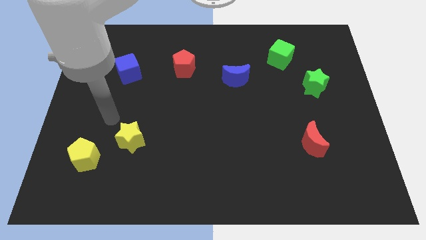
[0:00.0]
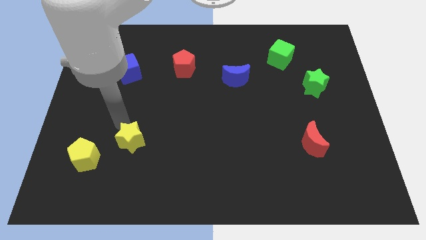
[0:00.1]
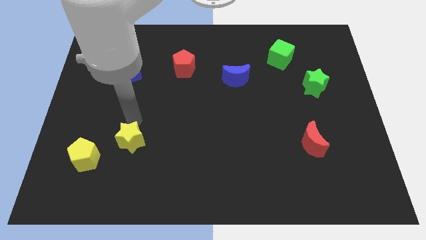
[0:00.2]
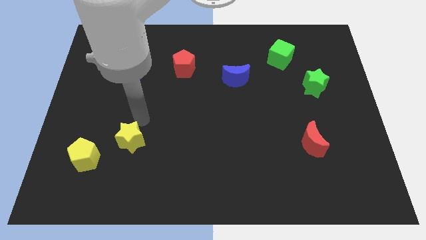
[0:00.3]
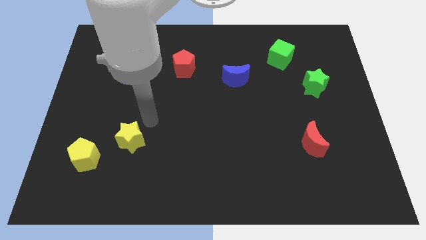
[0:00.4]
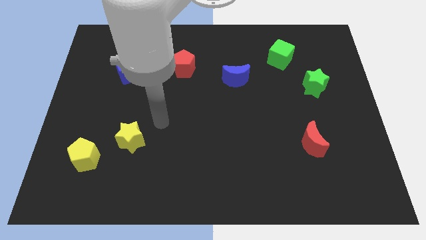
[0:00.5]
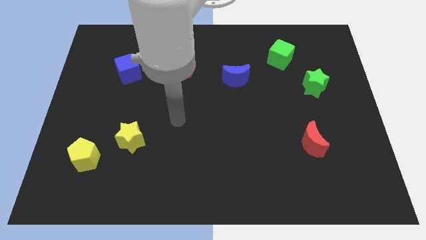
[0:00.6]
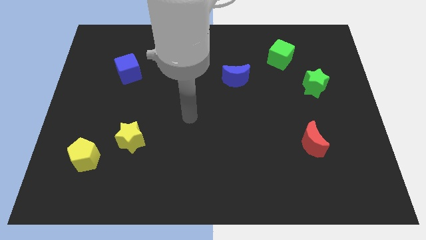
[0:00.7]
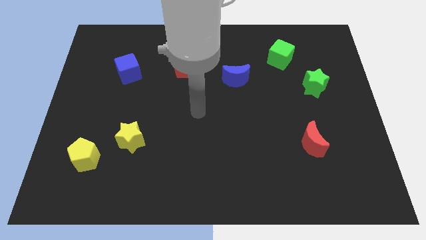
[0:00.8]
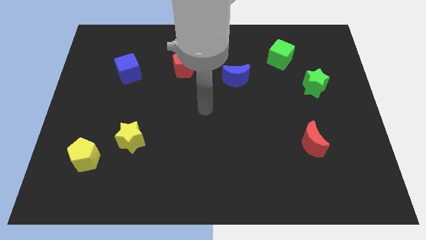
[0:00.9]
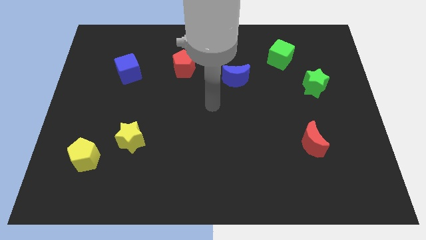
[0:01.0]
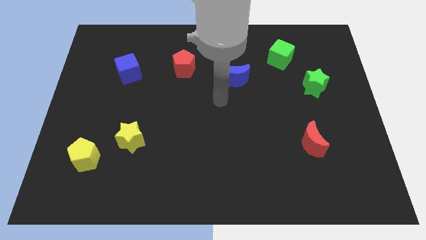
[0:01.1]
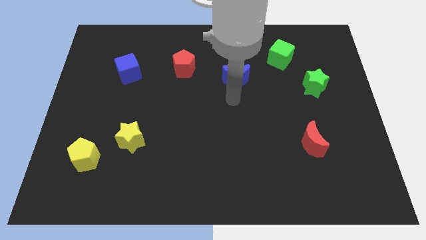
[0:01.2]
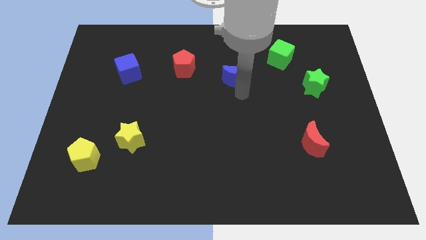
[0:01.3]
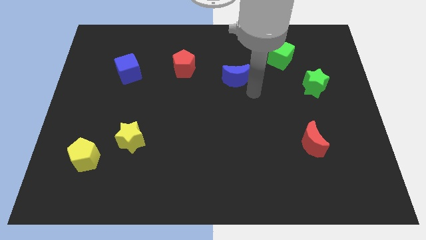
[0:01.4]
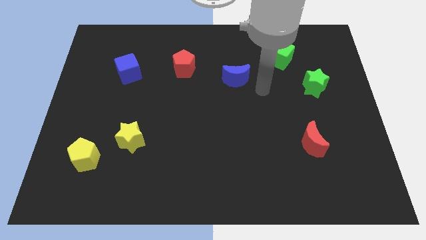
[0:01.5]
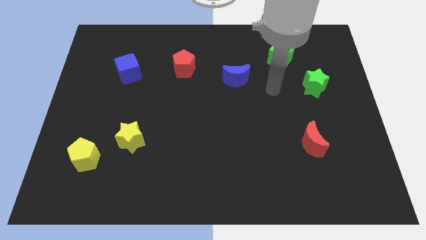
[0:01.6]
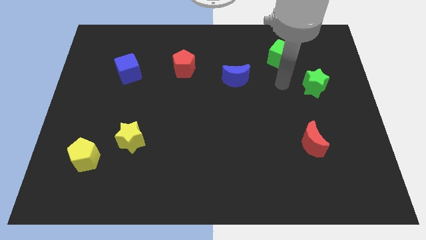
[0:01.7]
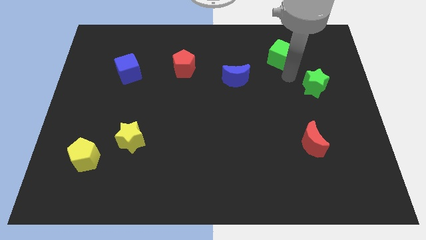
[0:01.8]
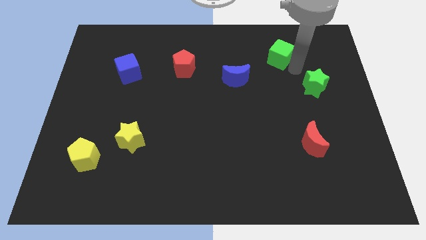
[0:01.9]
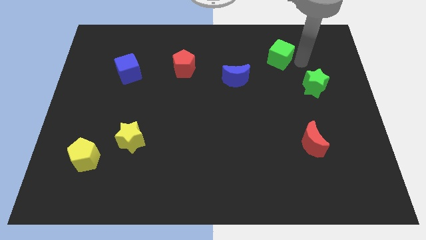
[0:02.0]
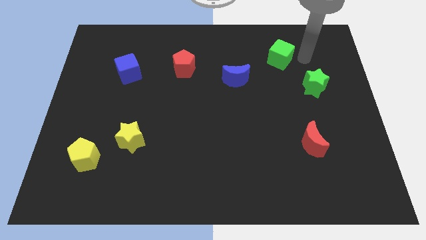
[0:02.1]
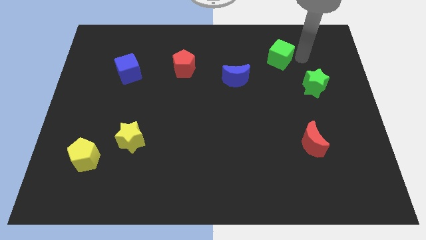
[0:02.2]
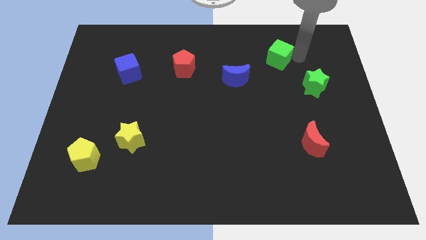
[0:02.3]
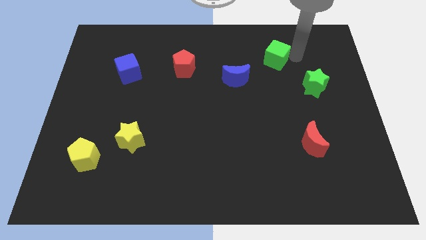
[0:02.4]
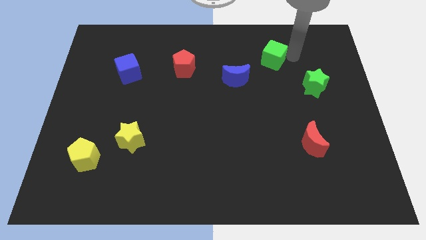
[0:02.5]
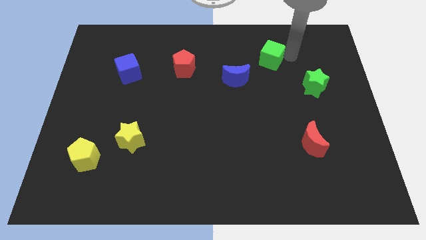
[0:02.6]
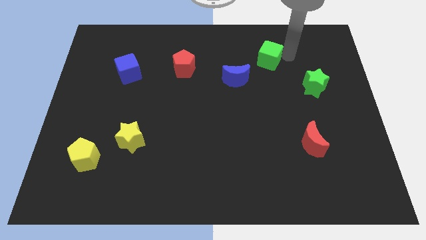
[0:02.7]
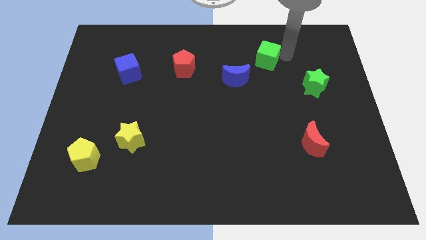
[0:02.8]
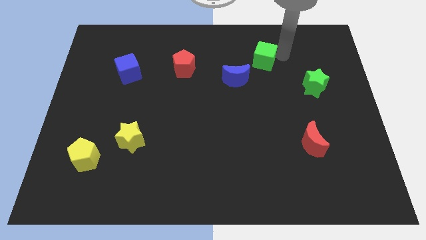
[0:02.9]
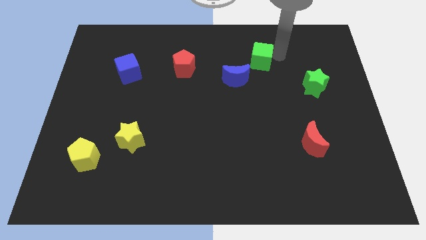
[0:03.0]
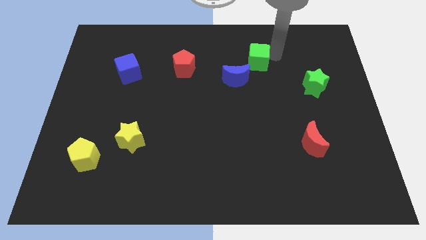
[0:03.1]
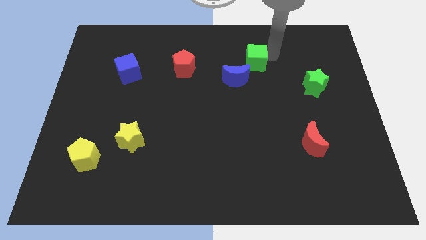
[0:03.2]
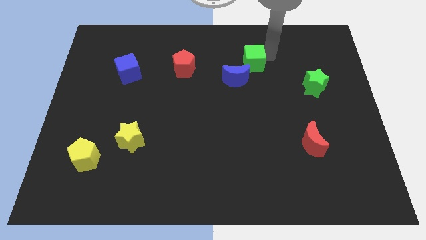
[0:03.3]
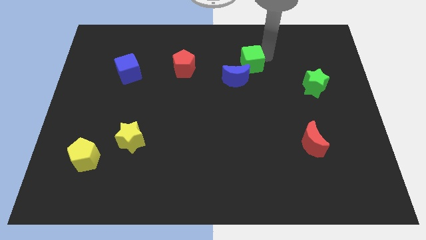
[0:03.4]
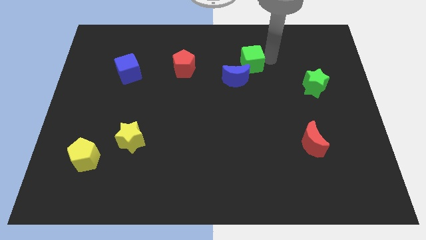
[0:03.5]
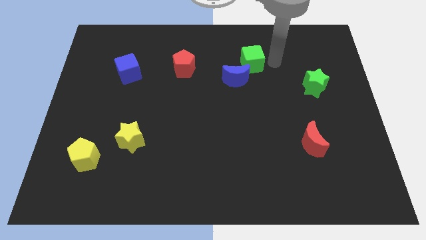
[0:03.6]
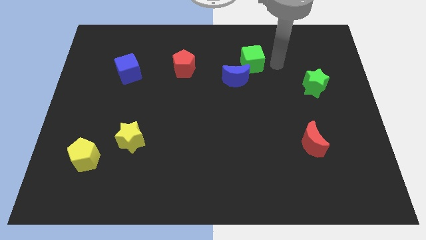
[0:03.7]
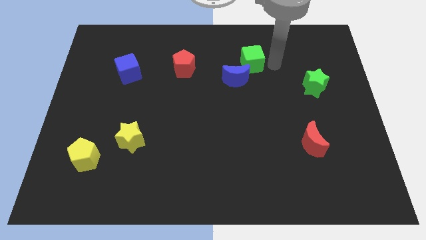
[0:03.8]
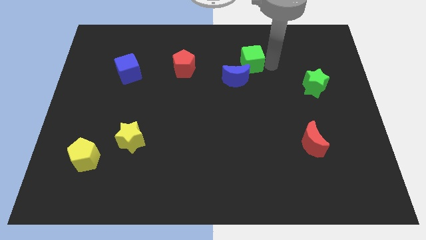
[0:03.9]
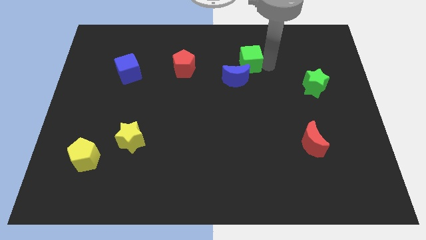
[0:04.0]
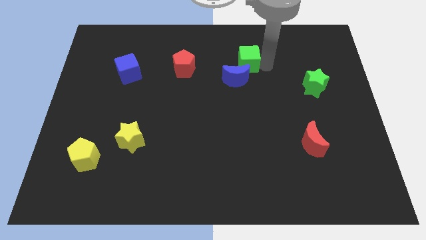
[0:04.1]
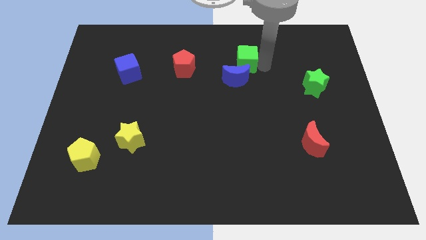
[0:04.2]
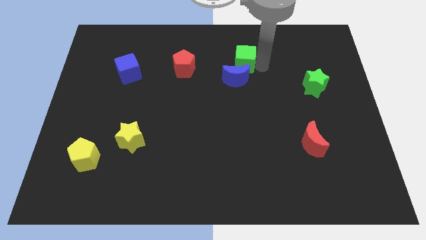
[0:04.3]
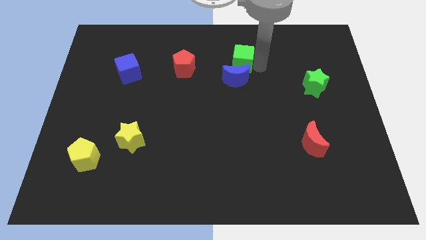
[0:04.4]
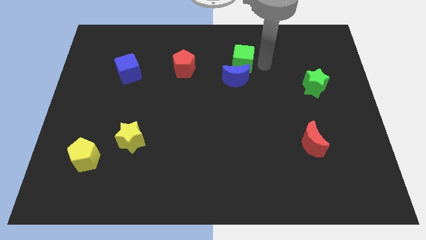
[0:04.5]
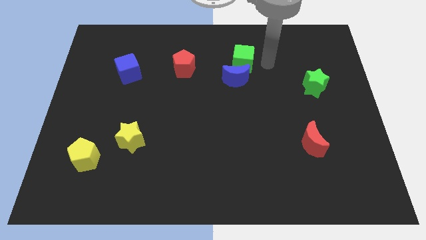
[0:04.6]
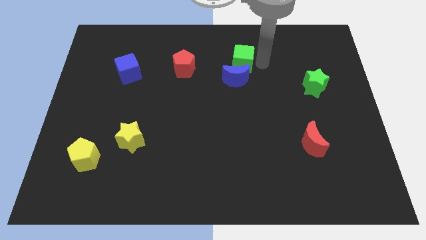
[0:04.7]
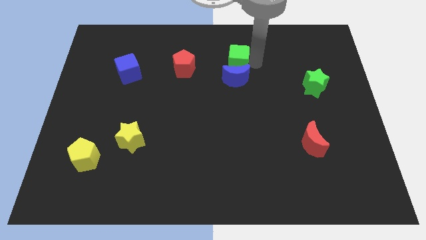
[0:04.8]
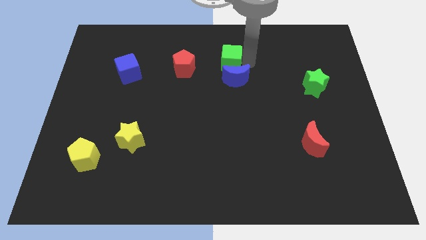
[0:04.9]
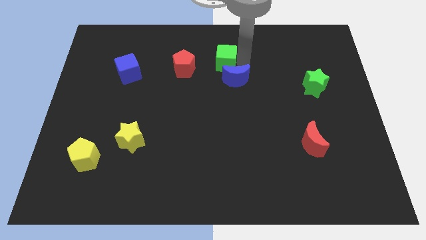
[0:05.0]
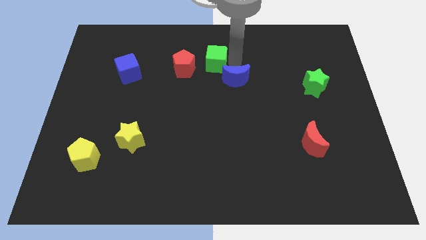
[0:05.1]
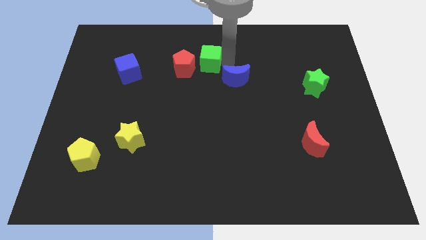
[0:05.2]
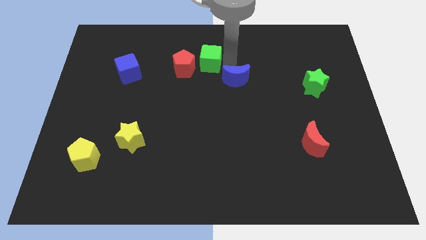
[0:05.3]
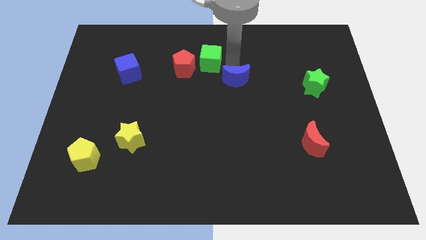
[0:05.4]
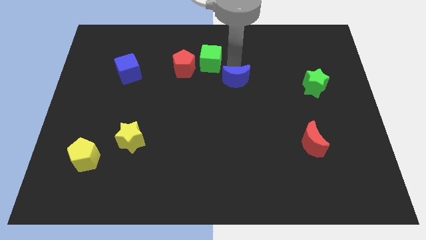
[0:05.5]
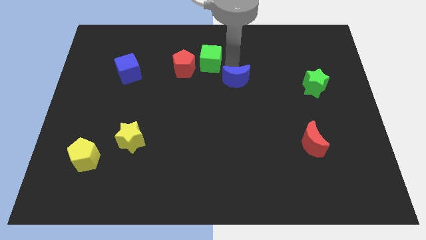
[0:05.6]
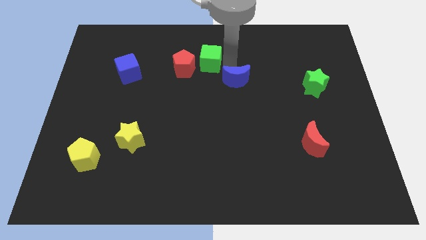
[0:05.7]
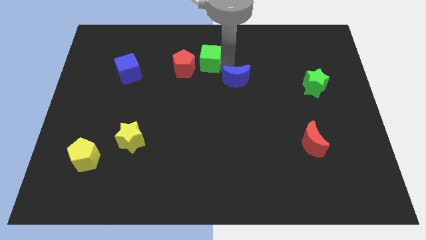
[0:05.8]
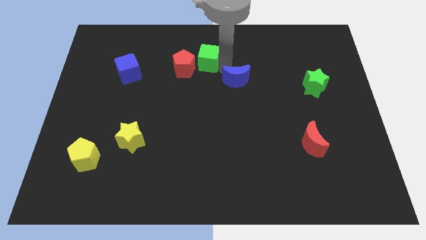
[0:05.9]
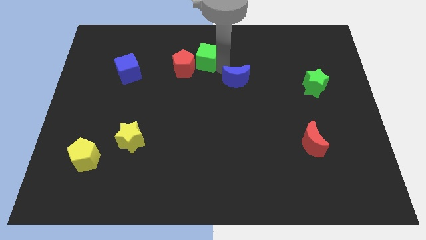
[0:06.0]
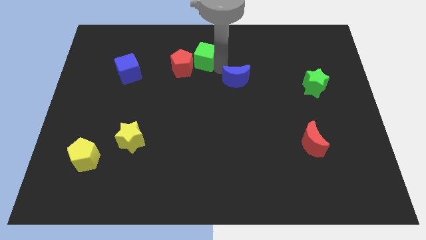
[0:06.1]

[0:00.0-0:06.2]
move the green cube to the left

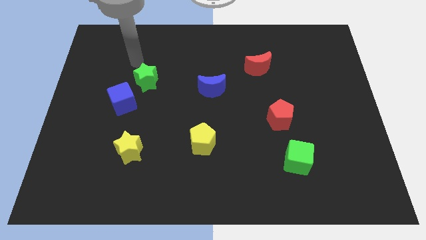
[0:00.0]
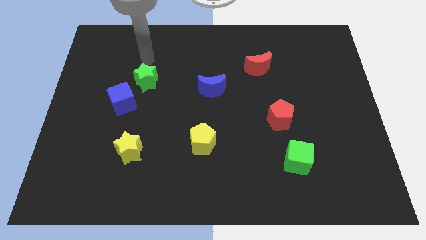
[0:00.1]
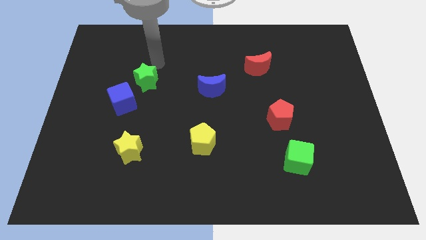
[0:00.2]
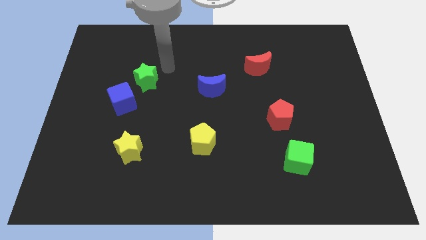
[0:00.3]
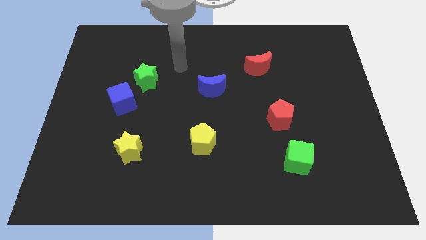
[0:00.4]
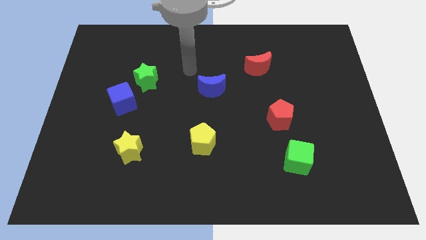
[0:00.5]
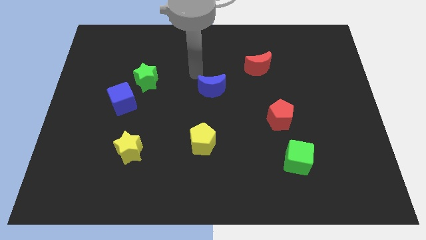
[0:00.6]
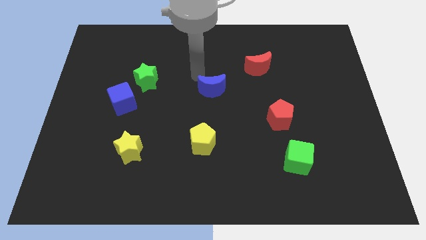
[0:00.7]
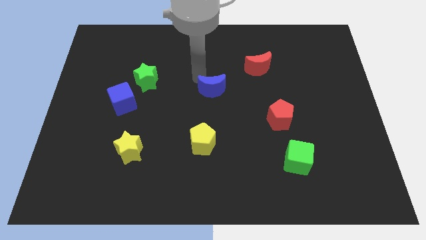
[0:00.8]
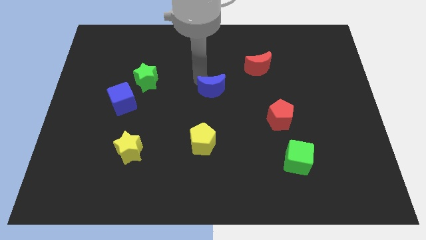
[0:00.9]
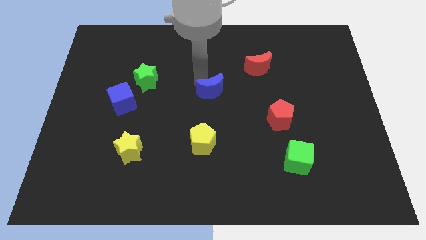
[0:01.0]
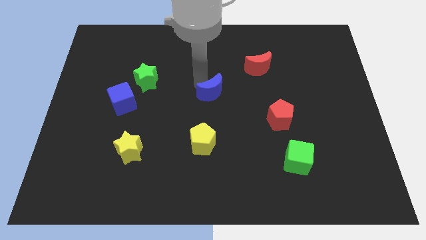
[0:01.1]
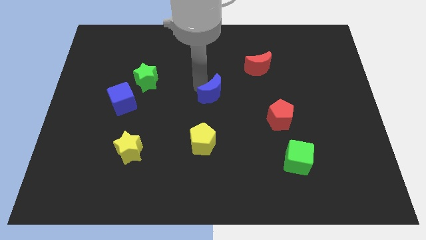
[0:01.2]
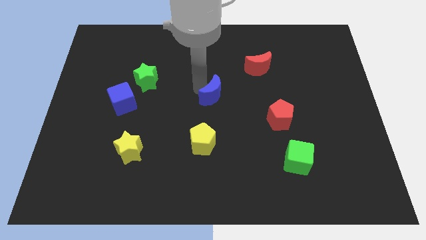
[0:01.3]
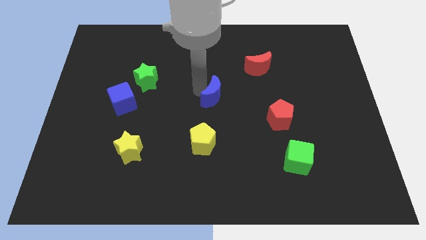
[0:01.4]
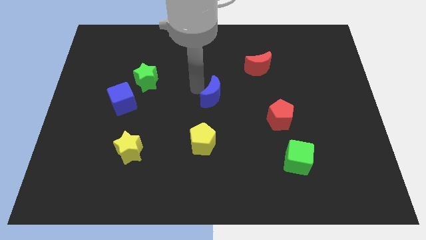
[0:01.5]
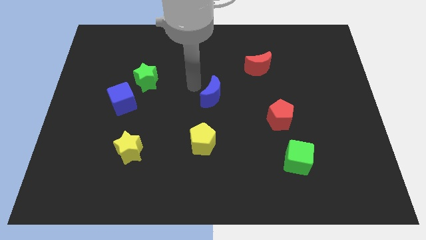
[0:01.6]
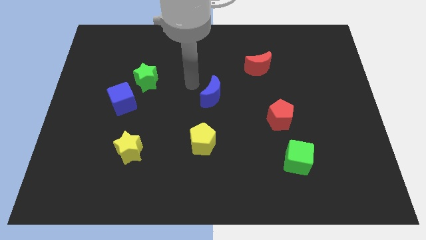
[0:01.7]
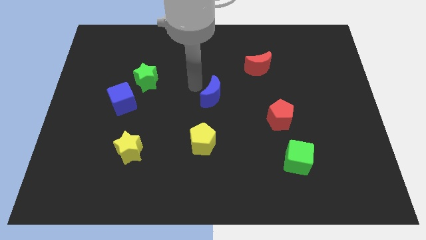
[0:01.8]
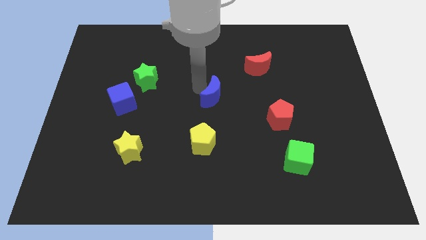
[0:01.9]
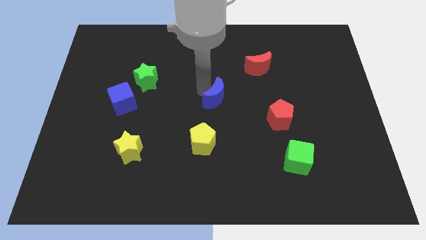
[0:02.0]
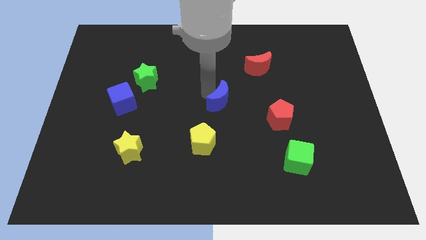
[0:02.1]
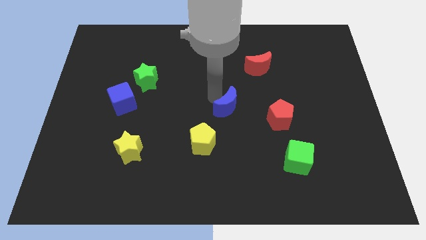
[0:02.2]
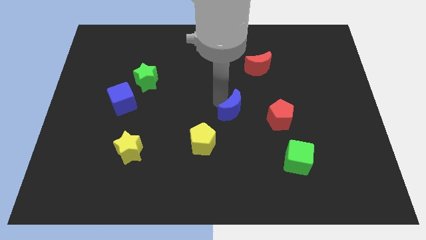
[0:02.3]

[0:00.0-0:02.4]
slightly slide the blue moon down and to the right diagonally
